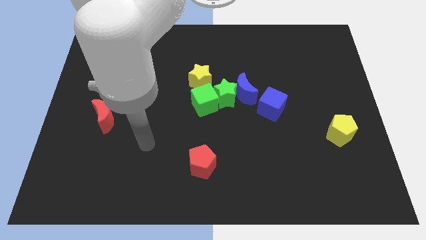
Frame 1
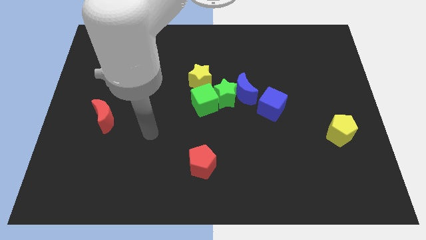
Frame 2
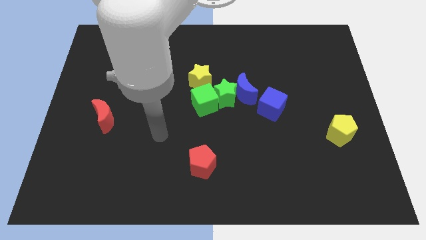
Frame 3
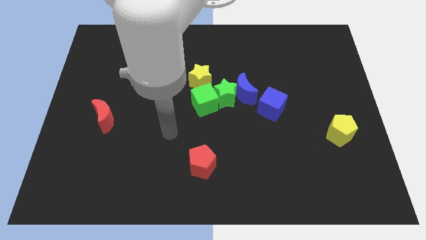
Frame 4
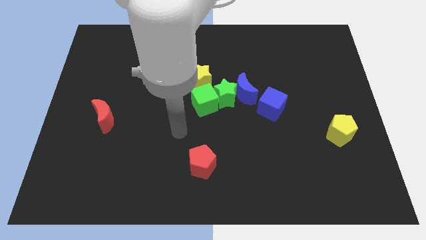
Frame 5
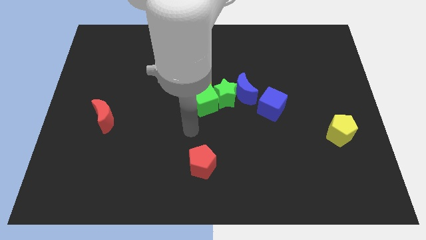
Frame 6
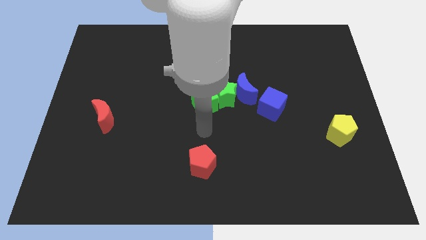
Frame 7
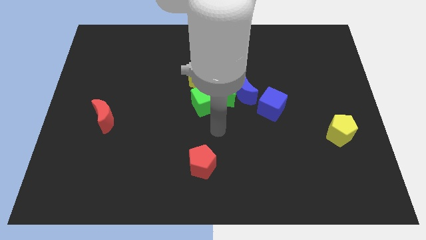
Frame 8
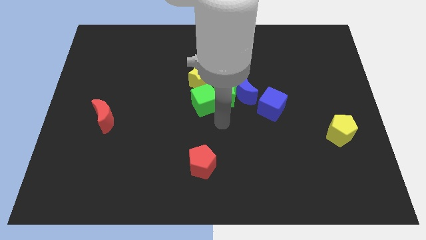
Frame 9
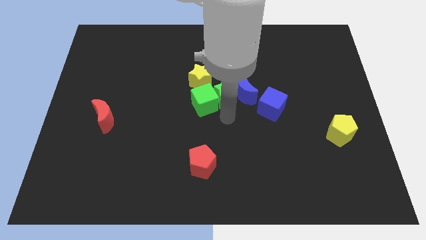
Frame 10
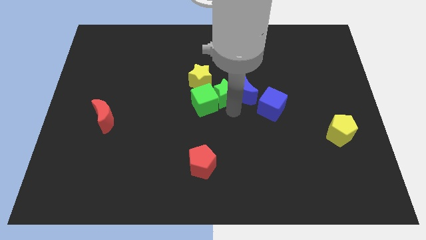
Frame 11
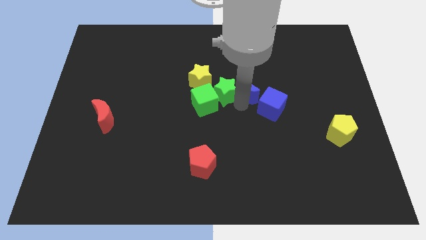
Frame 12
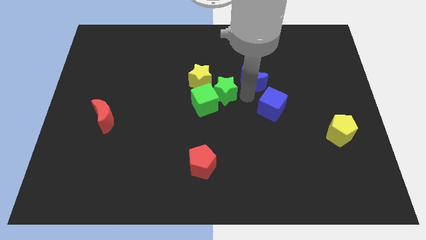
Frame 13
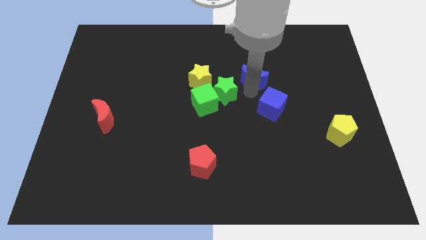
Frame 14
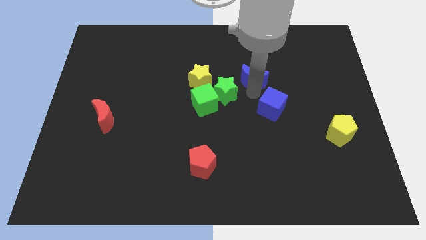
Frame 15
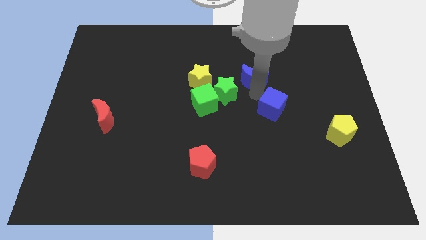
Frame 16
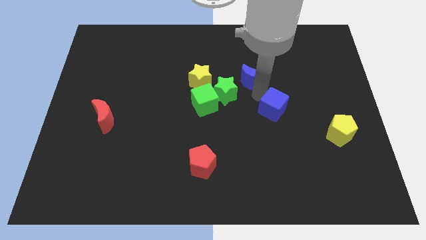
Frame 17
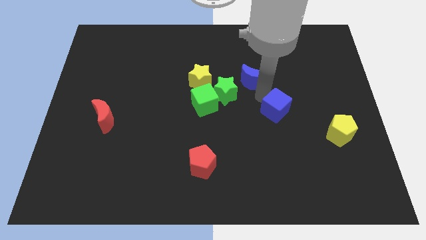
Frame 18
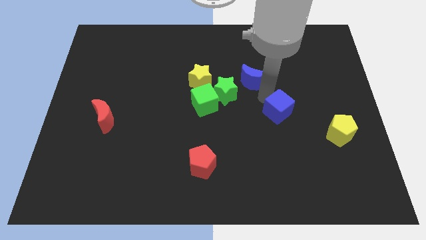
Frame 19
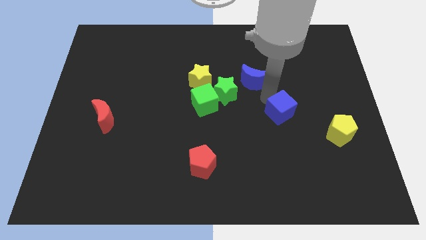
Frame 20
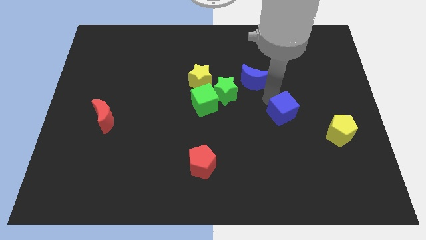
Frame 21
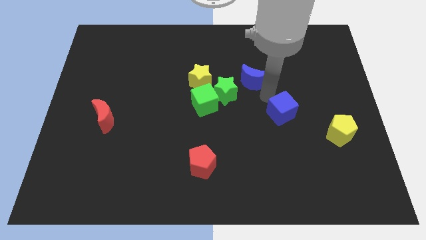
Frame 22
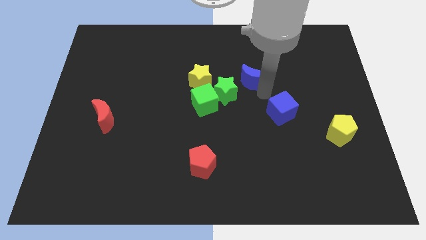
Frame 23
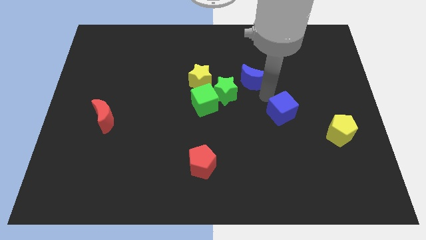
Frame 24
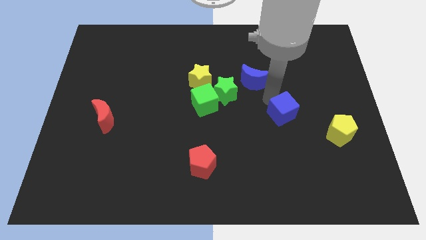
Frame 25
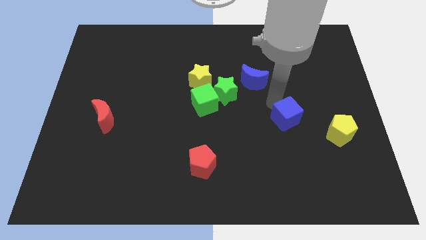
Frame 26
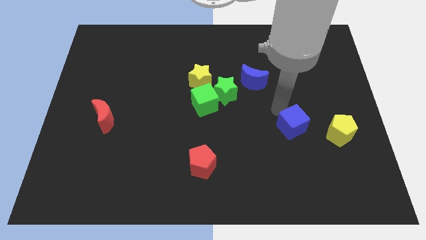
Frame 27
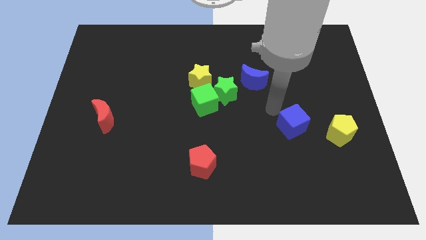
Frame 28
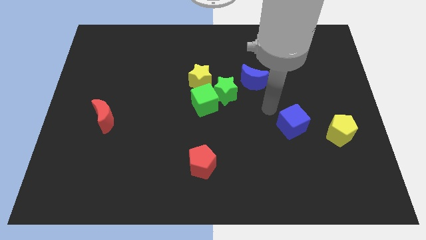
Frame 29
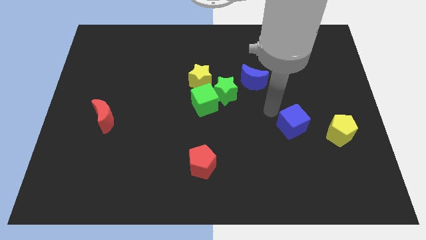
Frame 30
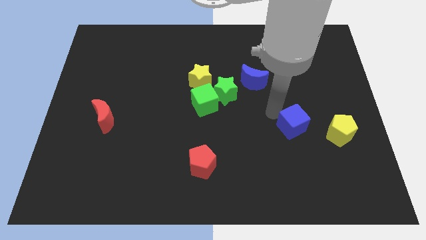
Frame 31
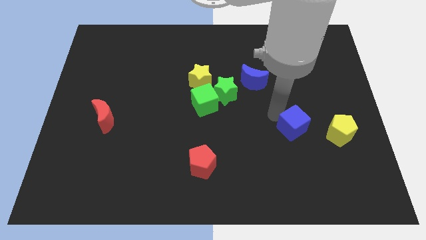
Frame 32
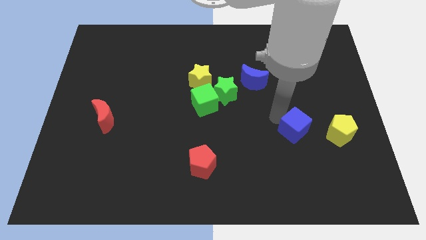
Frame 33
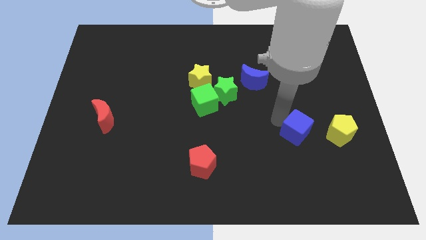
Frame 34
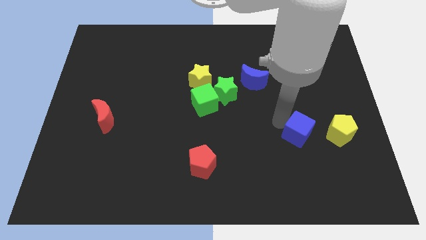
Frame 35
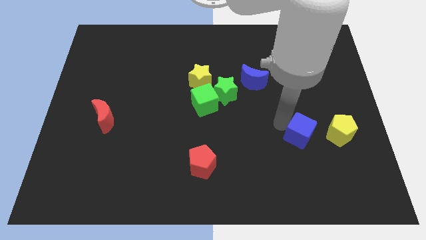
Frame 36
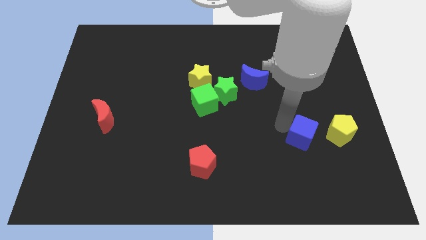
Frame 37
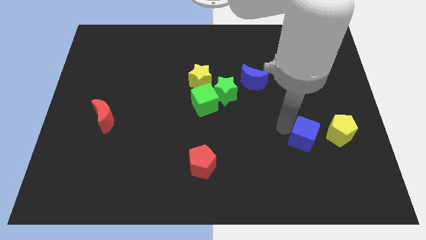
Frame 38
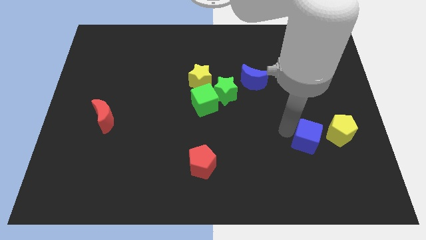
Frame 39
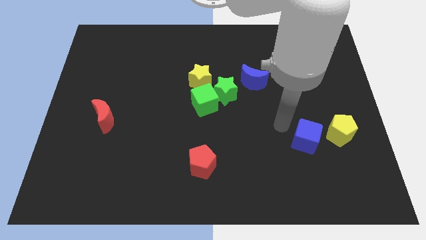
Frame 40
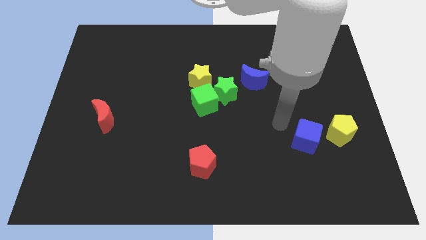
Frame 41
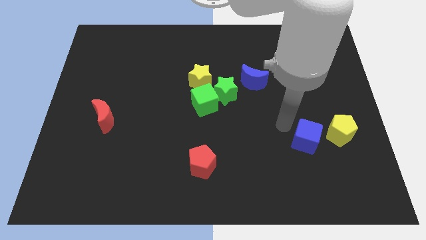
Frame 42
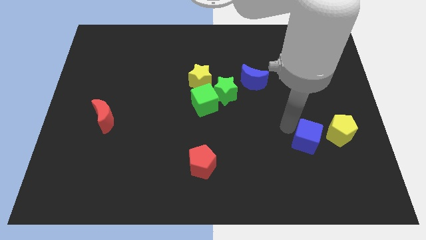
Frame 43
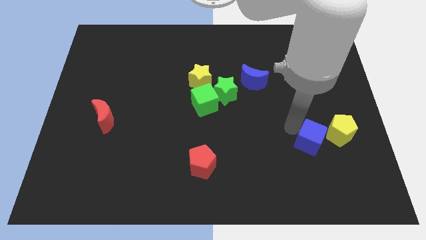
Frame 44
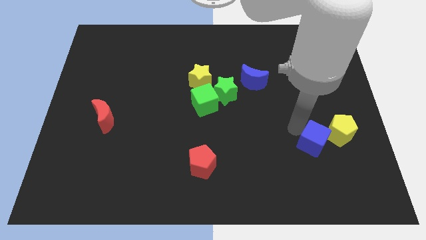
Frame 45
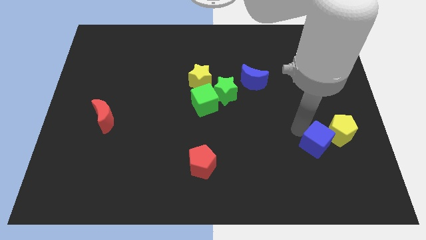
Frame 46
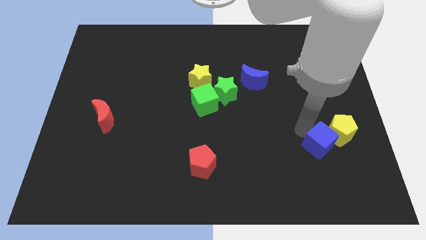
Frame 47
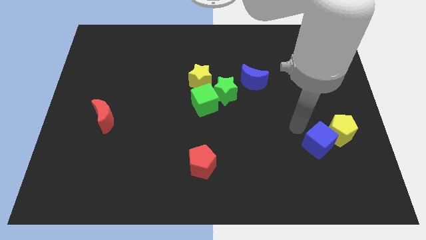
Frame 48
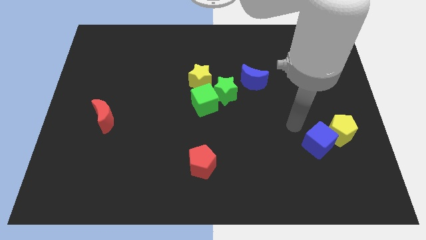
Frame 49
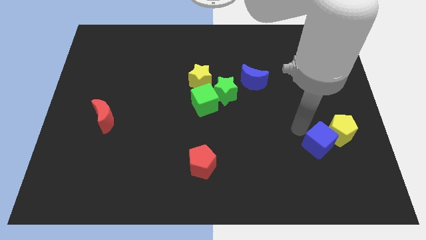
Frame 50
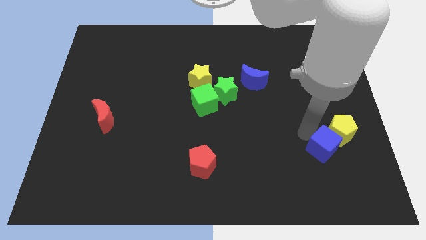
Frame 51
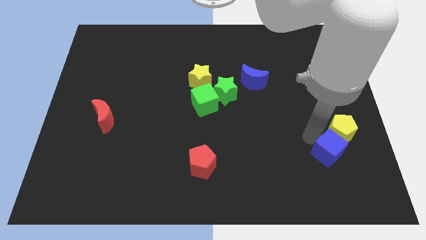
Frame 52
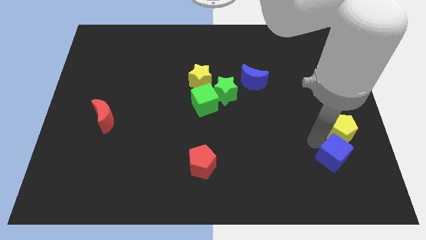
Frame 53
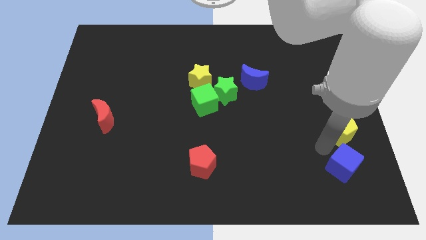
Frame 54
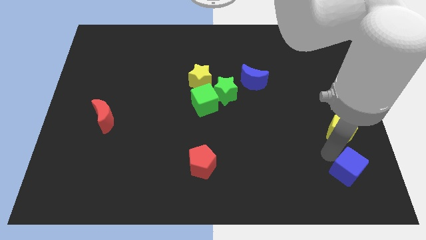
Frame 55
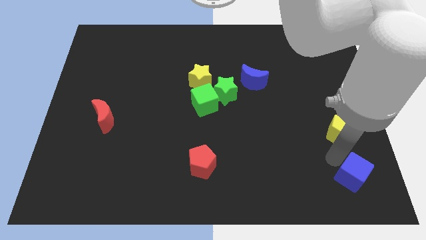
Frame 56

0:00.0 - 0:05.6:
slide the blue cube to the lower right corner

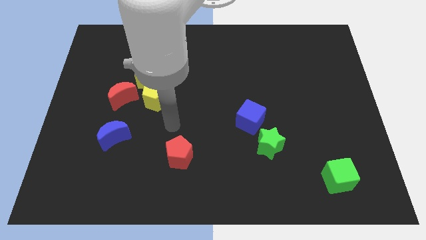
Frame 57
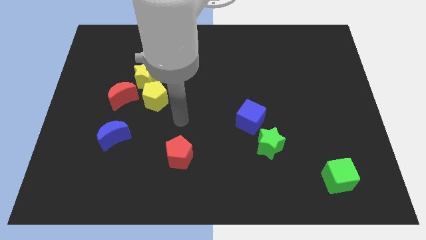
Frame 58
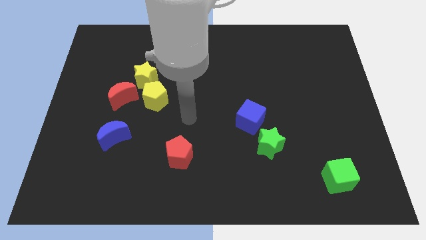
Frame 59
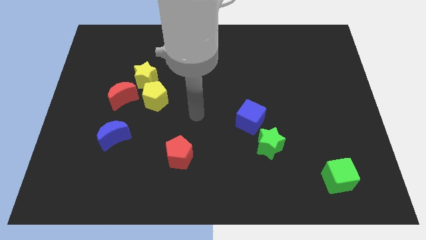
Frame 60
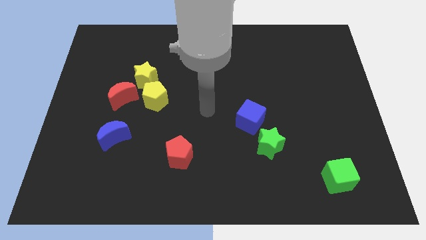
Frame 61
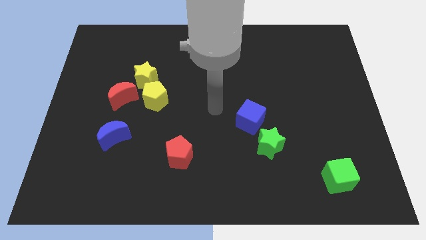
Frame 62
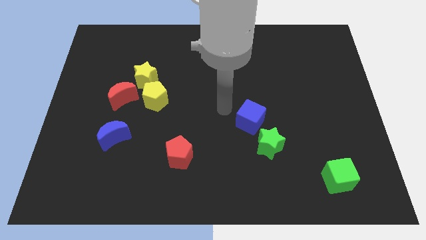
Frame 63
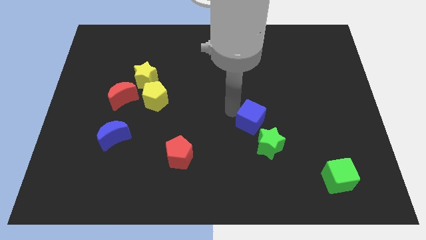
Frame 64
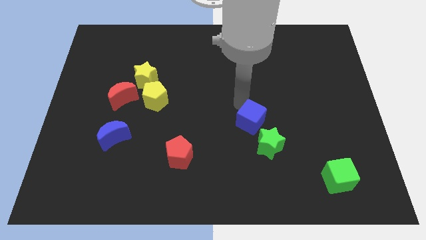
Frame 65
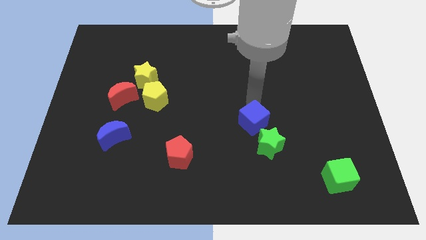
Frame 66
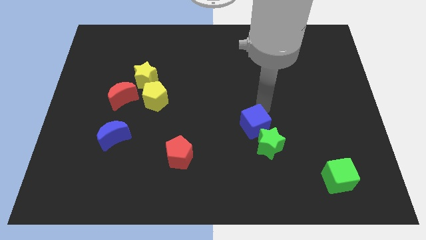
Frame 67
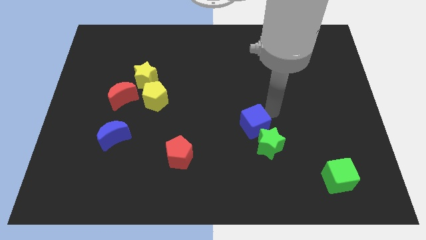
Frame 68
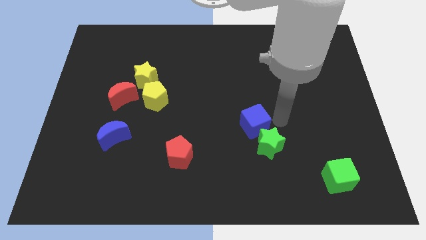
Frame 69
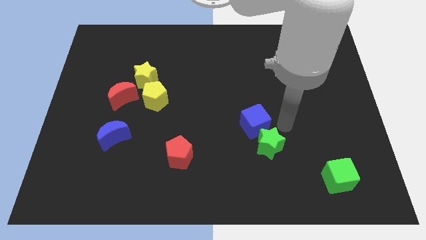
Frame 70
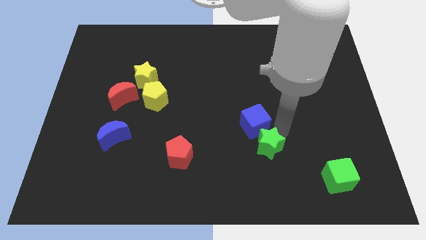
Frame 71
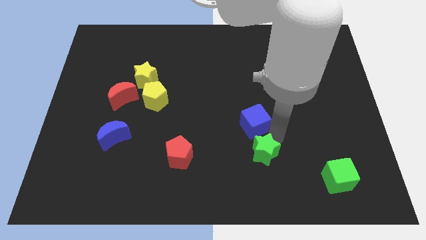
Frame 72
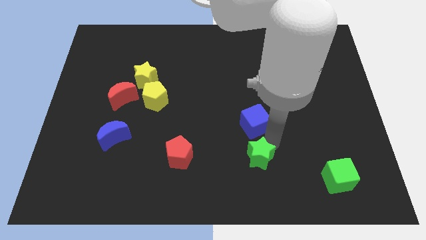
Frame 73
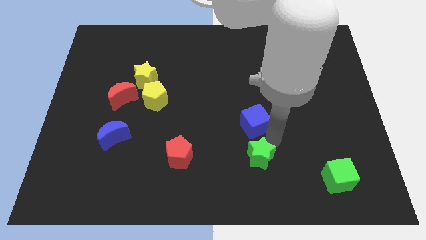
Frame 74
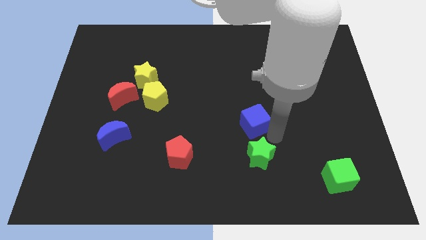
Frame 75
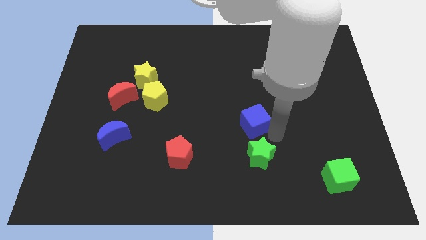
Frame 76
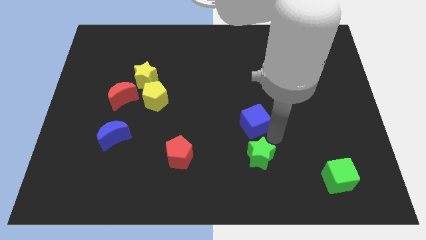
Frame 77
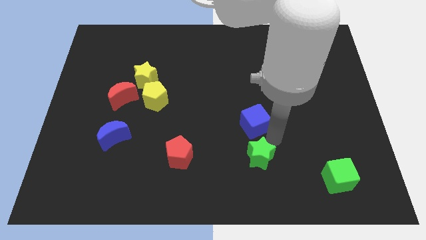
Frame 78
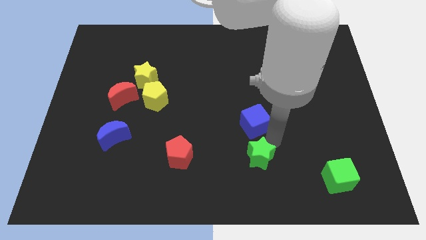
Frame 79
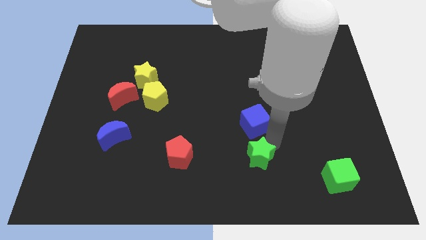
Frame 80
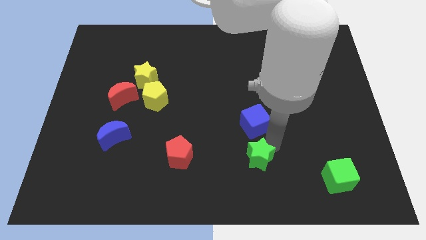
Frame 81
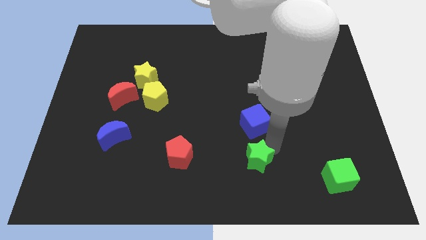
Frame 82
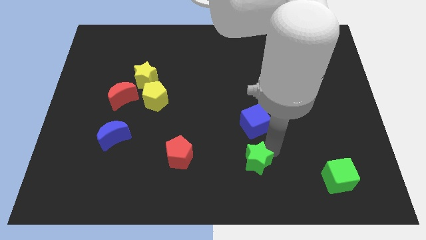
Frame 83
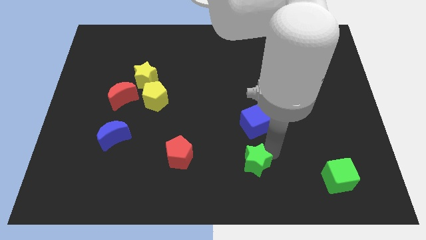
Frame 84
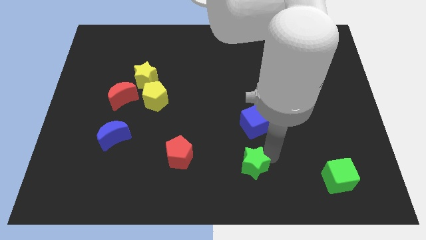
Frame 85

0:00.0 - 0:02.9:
slide the green star to the bottom side
